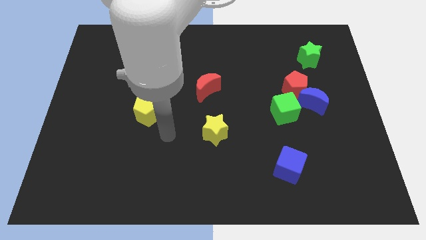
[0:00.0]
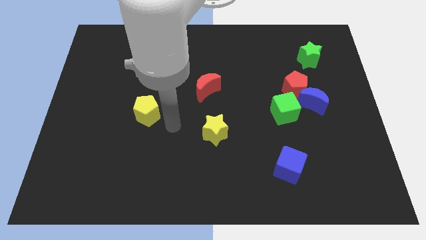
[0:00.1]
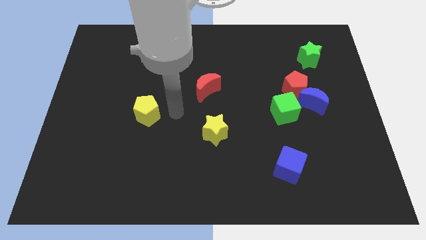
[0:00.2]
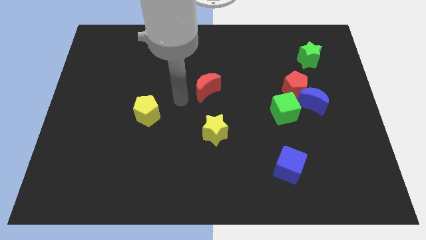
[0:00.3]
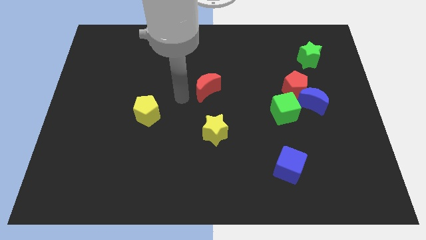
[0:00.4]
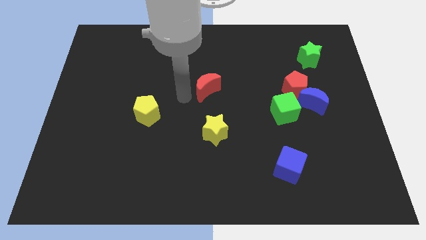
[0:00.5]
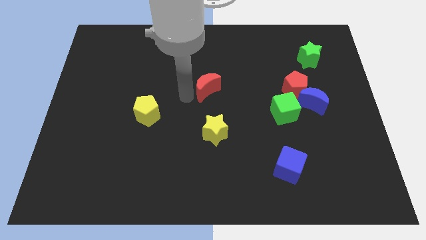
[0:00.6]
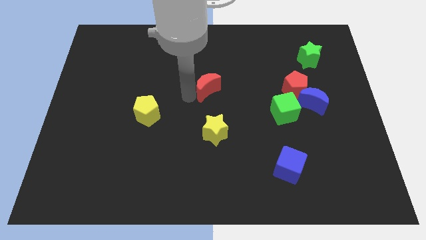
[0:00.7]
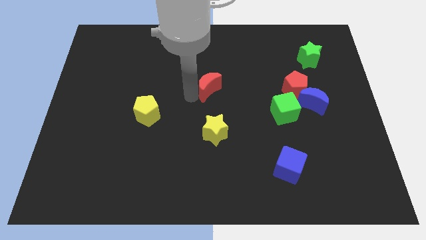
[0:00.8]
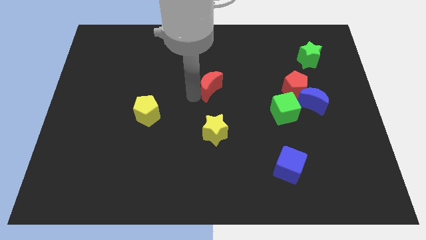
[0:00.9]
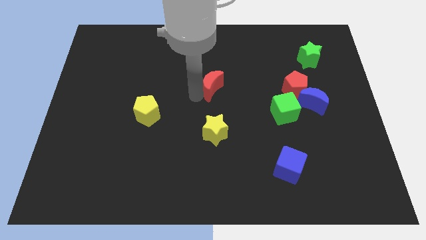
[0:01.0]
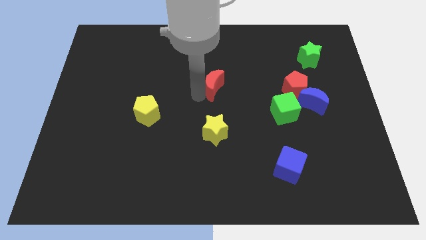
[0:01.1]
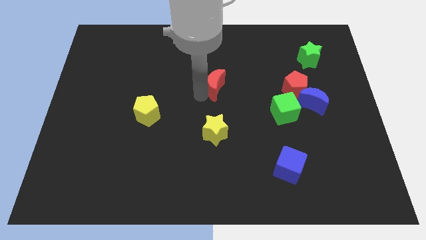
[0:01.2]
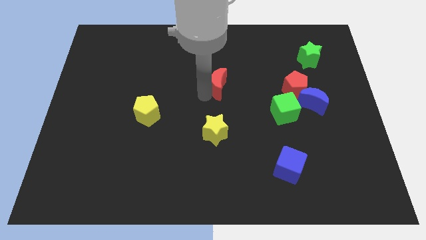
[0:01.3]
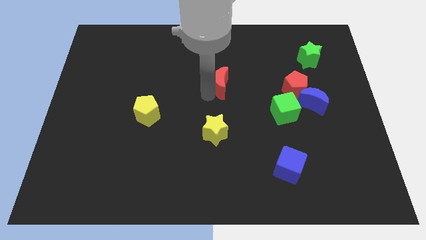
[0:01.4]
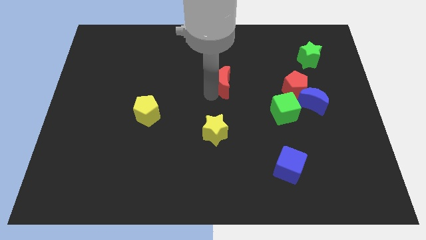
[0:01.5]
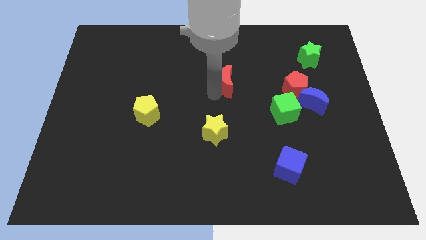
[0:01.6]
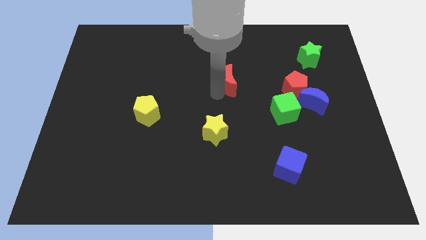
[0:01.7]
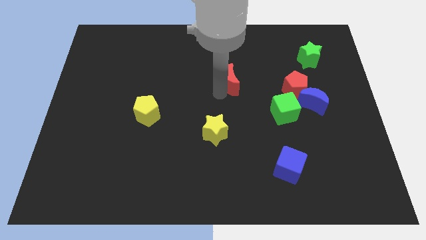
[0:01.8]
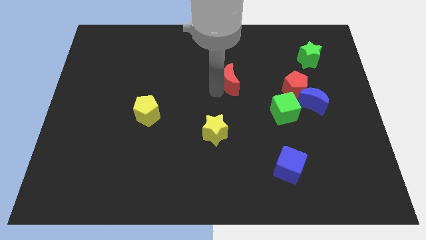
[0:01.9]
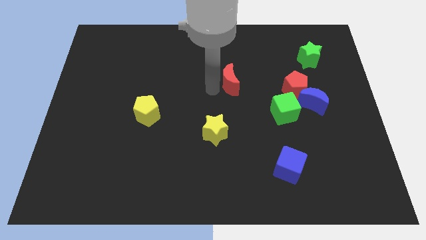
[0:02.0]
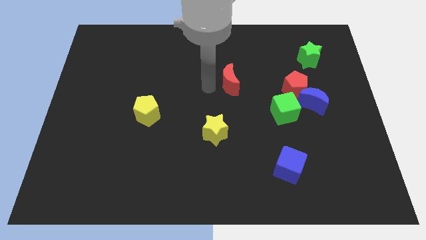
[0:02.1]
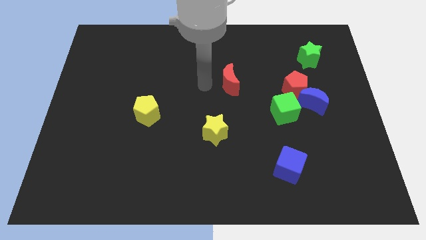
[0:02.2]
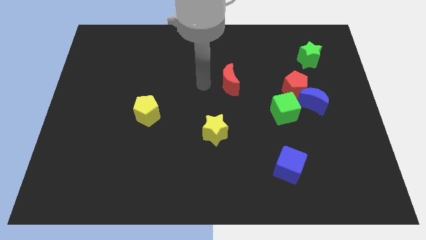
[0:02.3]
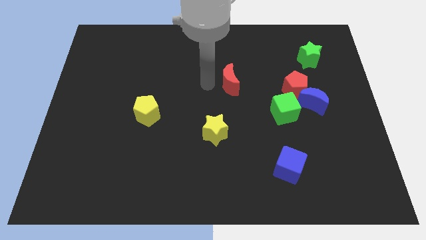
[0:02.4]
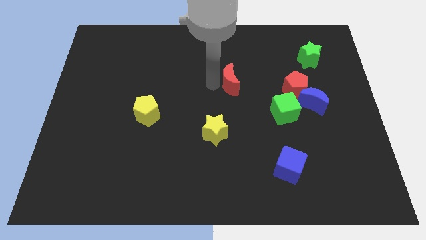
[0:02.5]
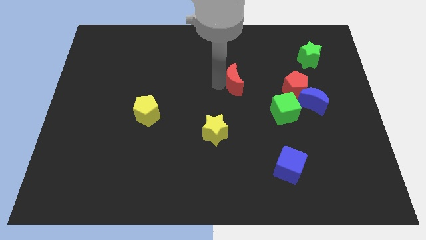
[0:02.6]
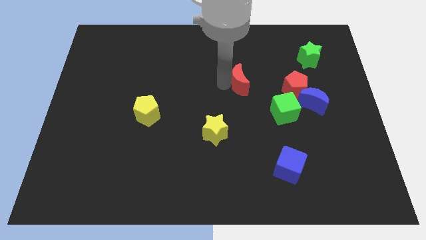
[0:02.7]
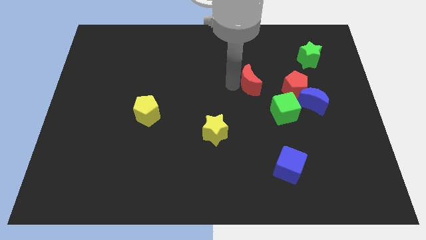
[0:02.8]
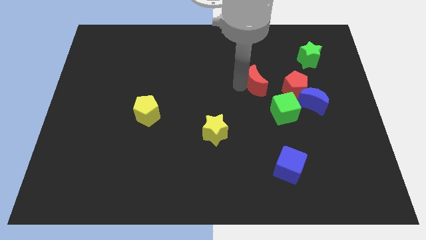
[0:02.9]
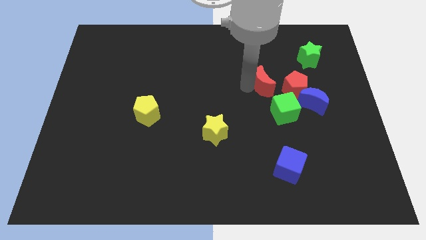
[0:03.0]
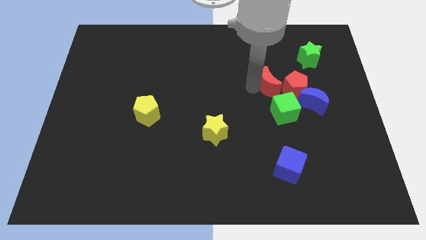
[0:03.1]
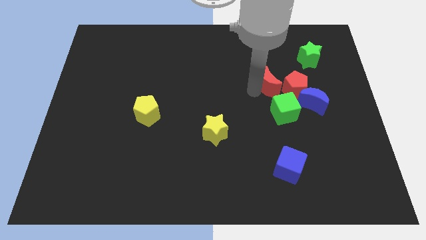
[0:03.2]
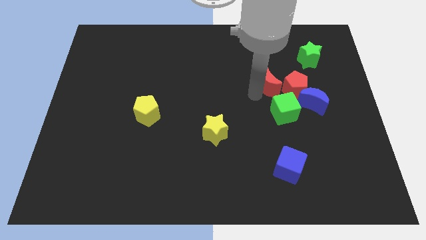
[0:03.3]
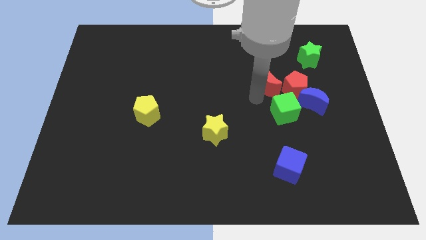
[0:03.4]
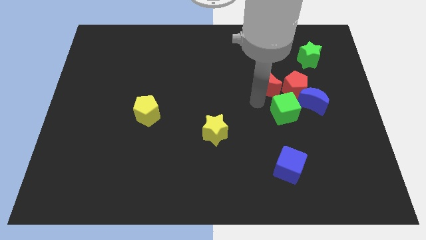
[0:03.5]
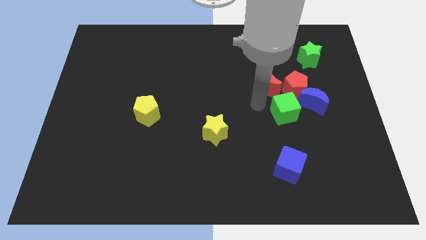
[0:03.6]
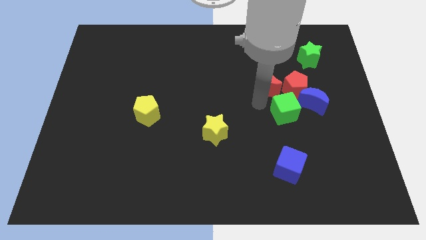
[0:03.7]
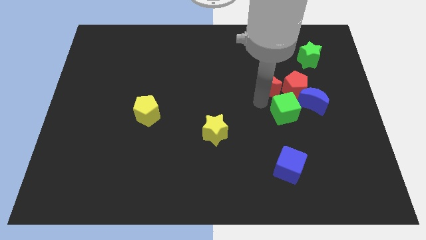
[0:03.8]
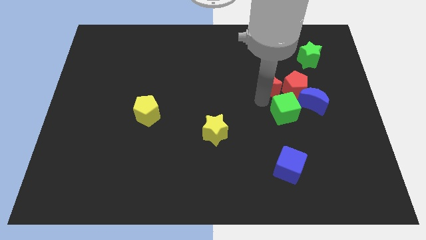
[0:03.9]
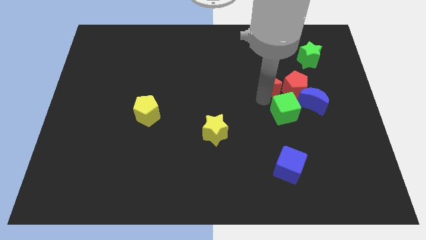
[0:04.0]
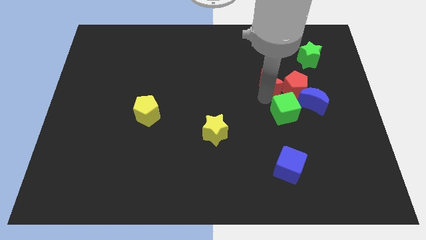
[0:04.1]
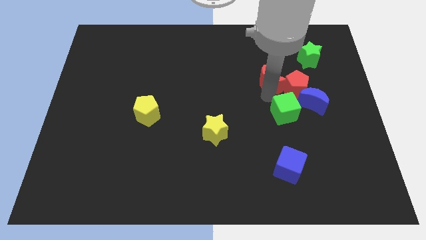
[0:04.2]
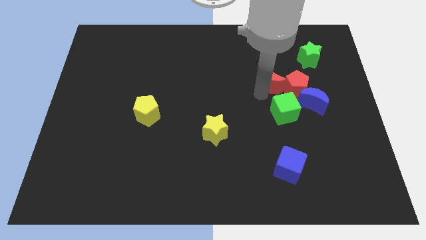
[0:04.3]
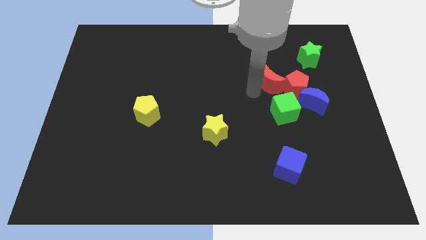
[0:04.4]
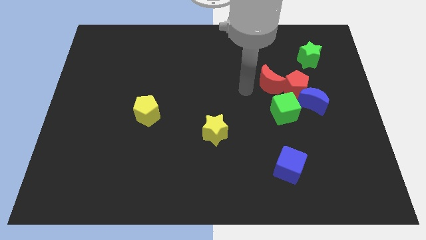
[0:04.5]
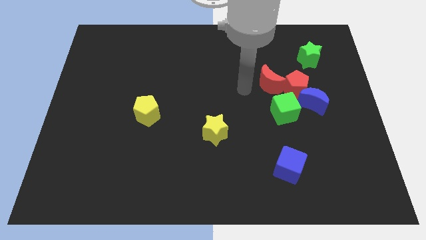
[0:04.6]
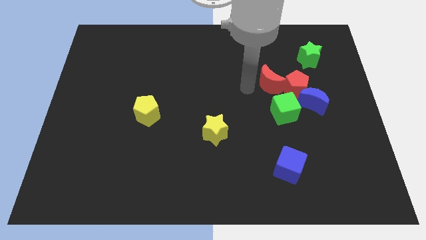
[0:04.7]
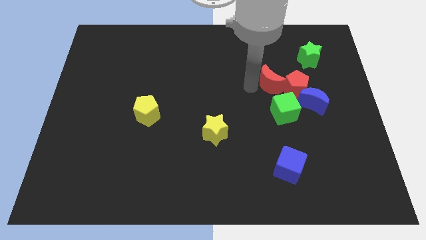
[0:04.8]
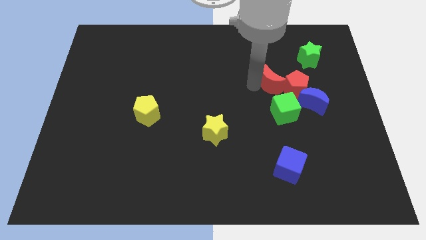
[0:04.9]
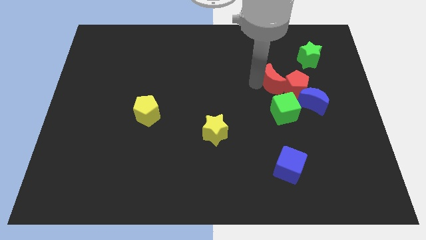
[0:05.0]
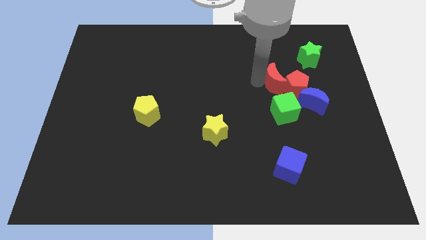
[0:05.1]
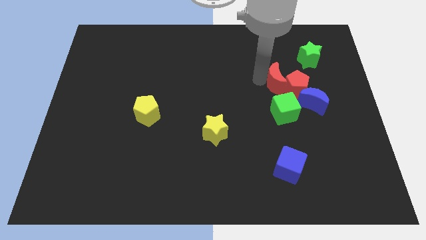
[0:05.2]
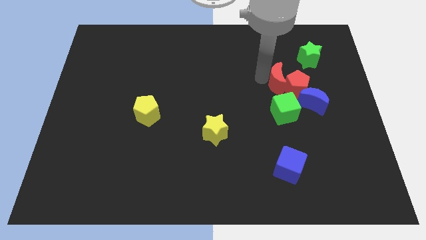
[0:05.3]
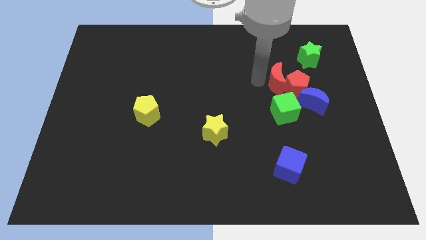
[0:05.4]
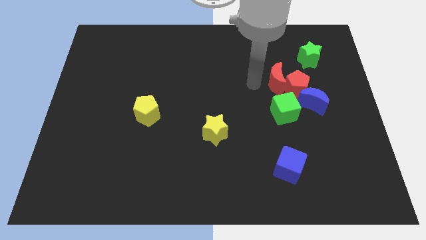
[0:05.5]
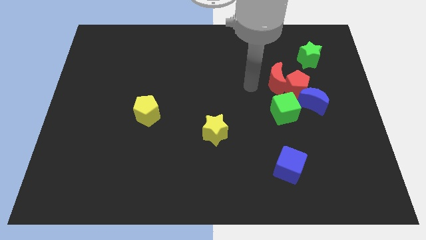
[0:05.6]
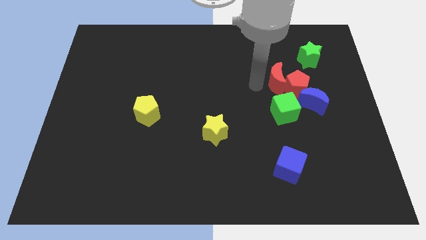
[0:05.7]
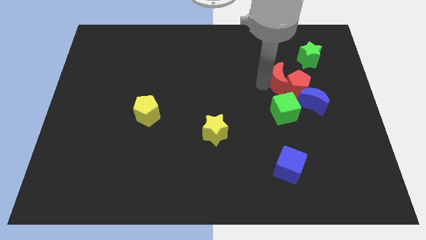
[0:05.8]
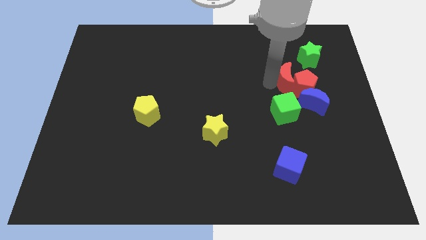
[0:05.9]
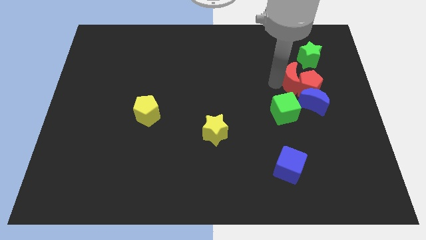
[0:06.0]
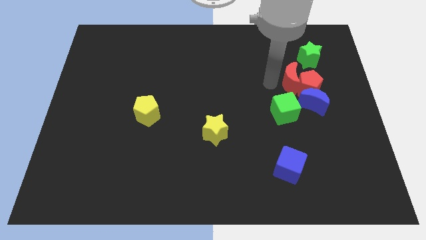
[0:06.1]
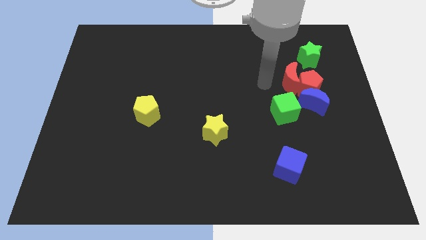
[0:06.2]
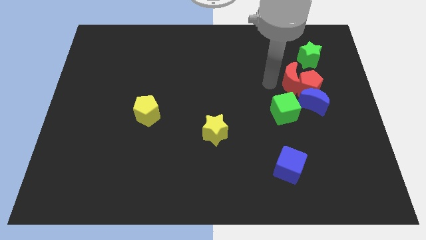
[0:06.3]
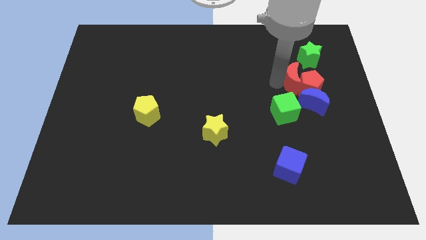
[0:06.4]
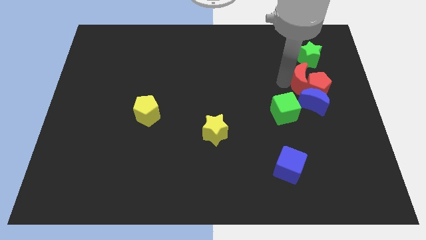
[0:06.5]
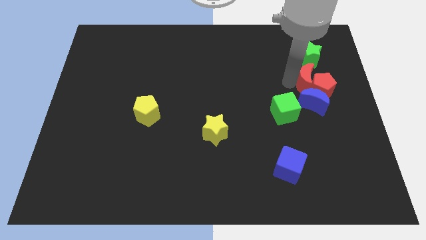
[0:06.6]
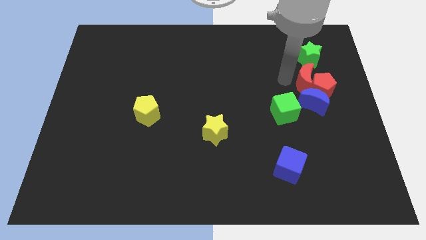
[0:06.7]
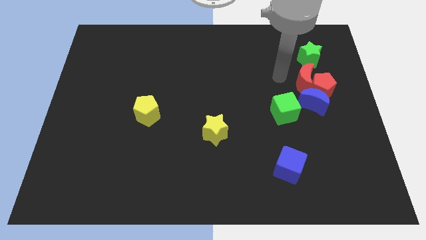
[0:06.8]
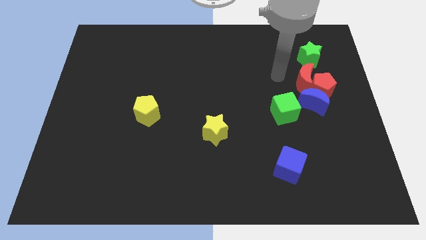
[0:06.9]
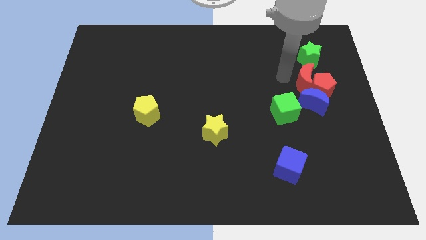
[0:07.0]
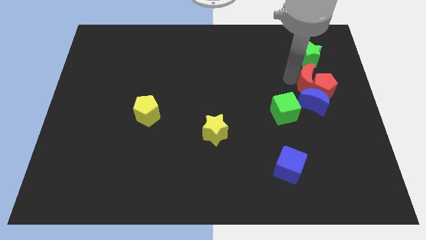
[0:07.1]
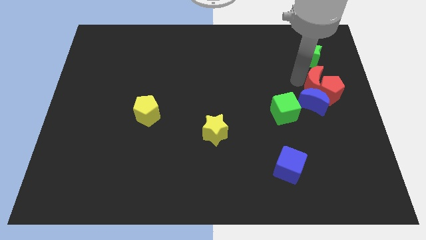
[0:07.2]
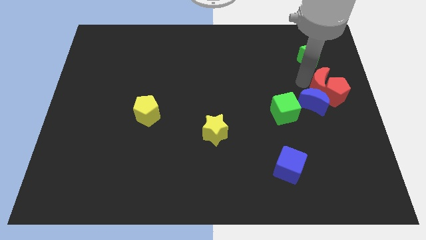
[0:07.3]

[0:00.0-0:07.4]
move the red moon to the center right
